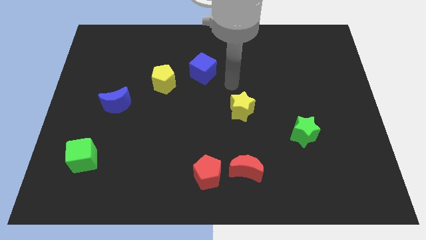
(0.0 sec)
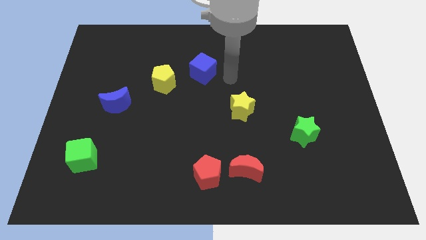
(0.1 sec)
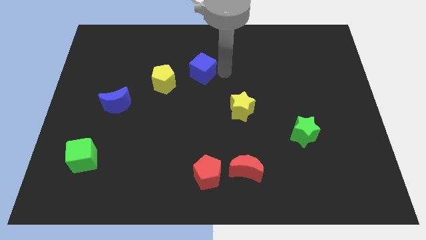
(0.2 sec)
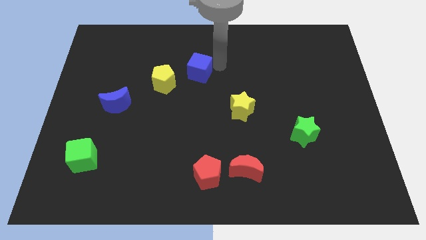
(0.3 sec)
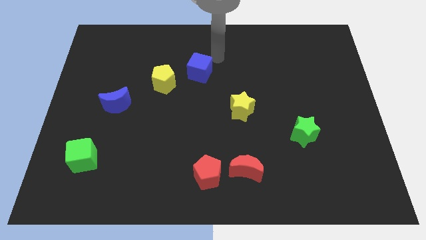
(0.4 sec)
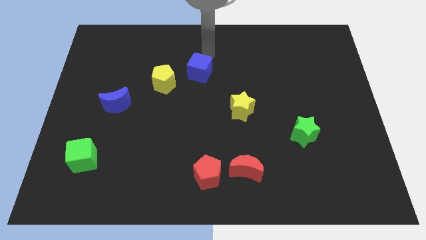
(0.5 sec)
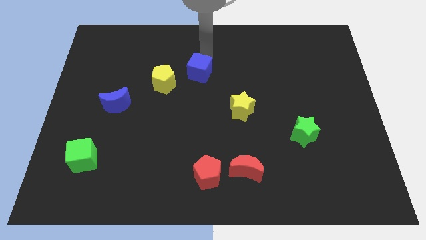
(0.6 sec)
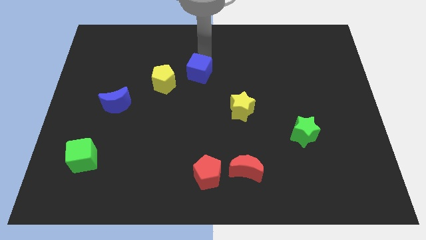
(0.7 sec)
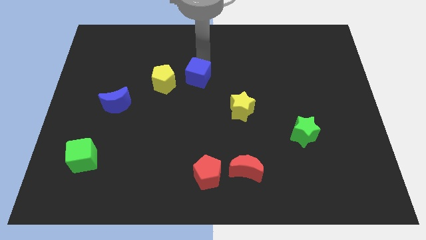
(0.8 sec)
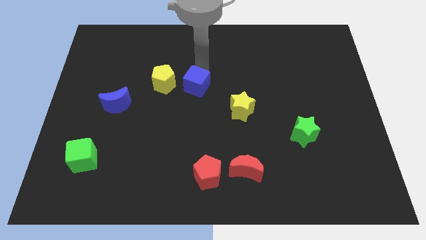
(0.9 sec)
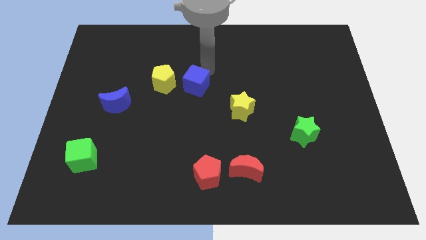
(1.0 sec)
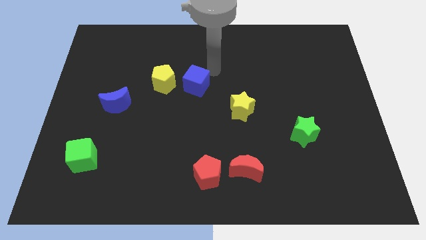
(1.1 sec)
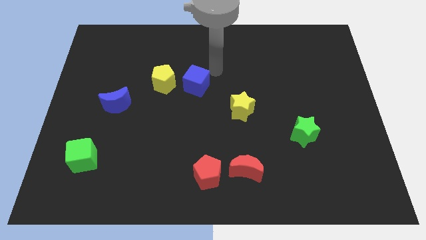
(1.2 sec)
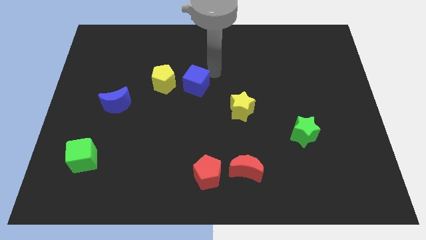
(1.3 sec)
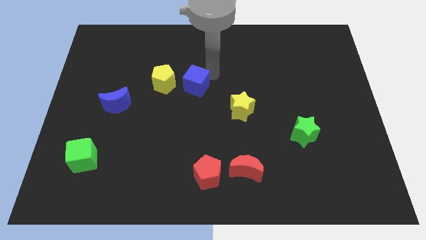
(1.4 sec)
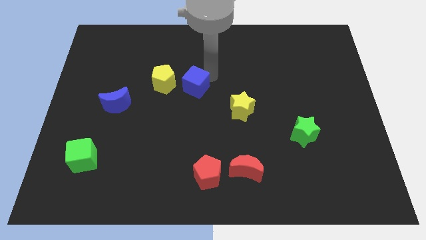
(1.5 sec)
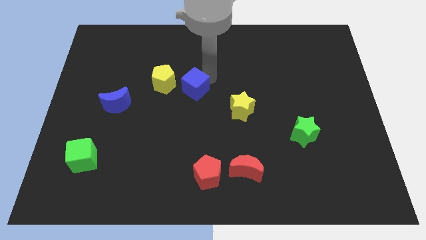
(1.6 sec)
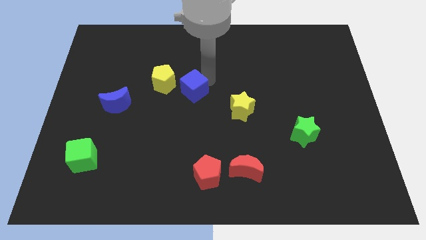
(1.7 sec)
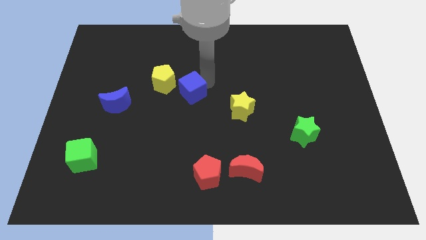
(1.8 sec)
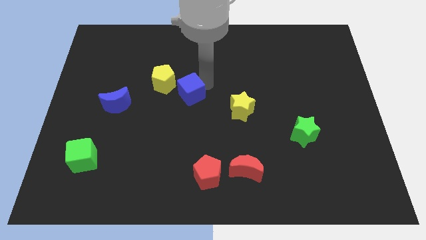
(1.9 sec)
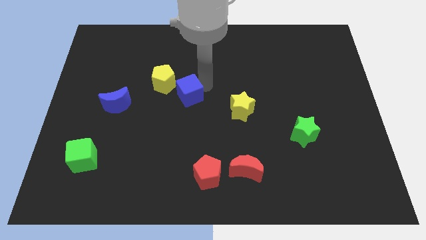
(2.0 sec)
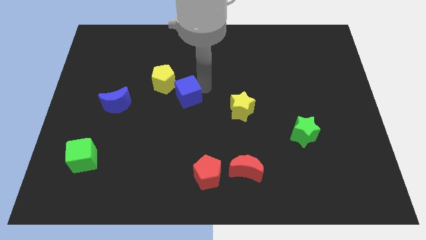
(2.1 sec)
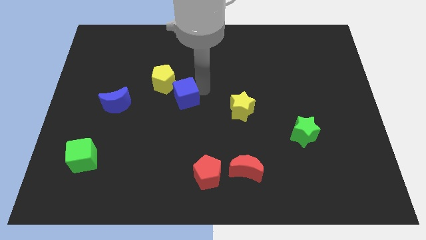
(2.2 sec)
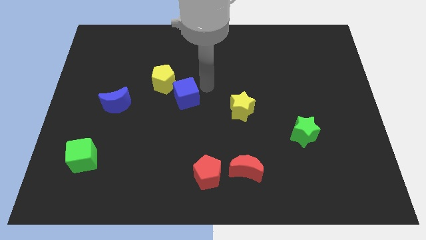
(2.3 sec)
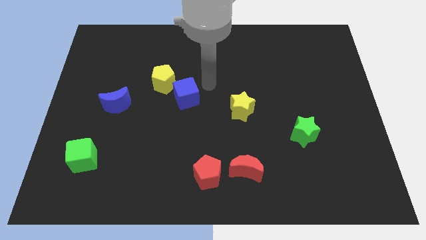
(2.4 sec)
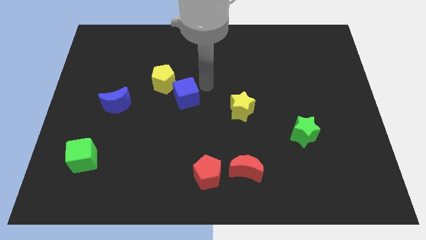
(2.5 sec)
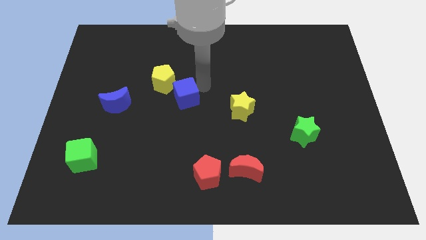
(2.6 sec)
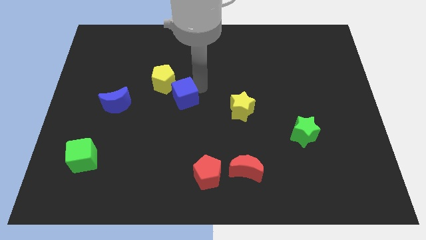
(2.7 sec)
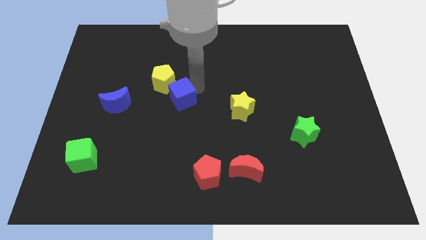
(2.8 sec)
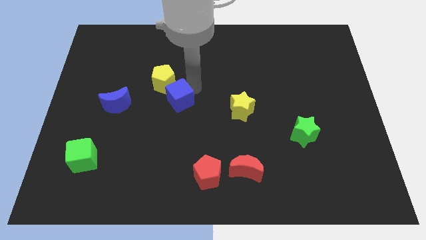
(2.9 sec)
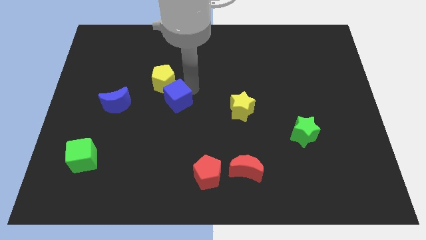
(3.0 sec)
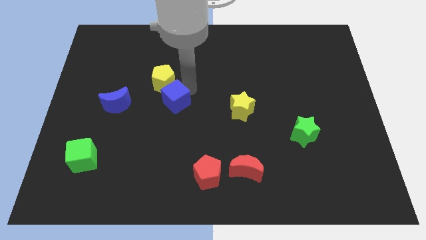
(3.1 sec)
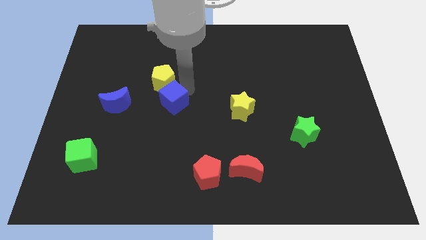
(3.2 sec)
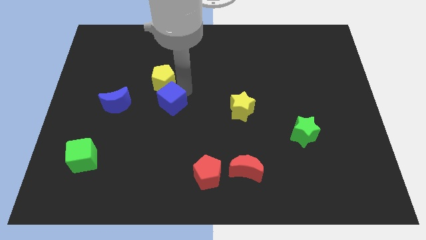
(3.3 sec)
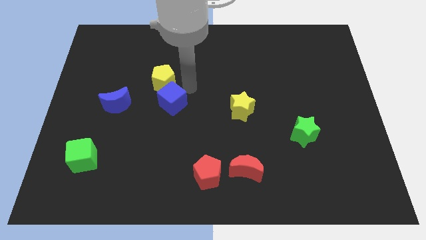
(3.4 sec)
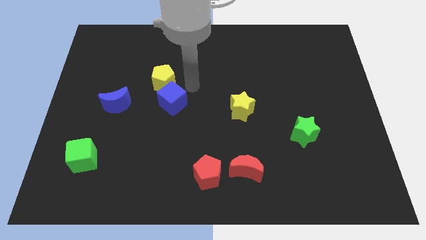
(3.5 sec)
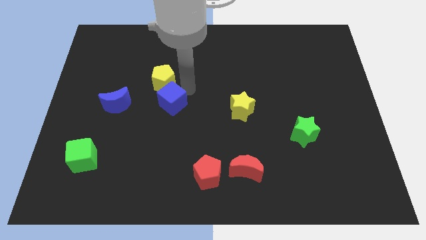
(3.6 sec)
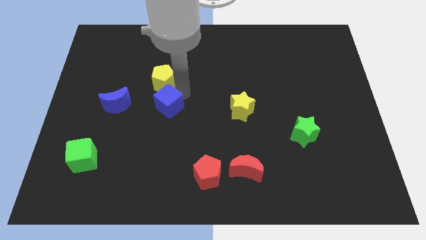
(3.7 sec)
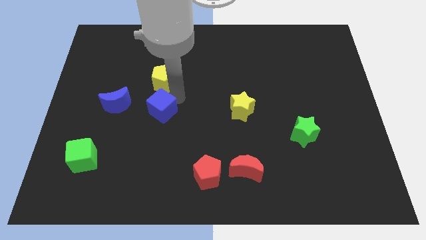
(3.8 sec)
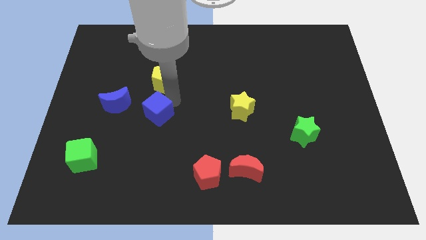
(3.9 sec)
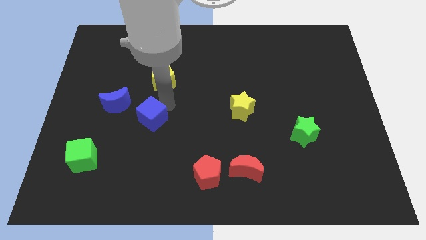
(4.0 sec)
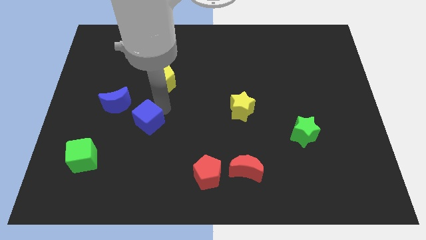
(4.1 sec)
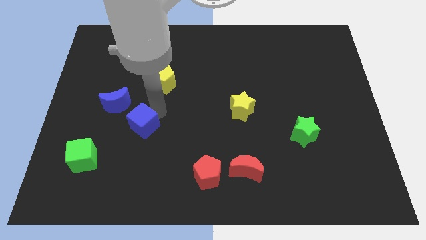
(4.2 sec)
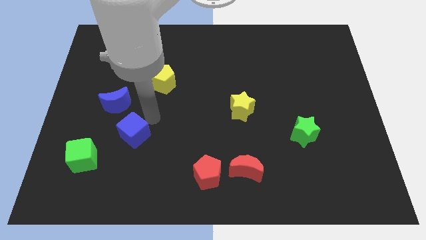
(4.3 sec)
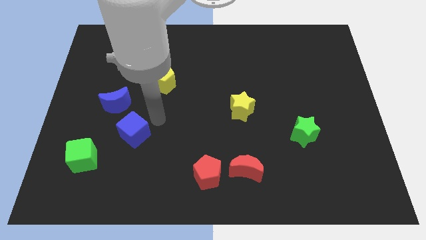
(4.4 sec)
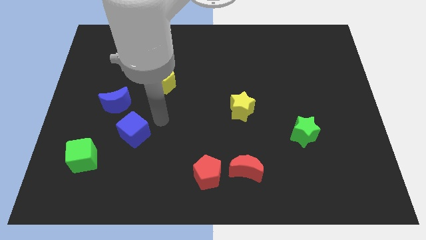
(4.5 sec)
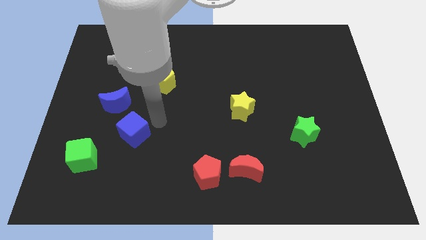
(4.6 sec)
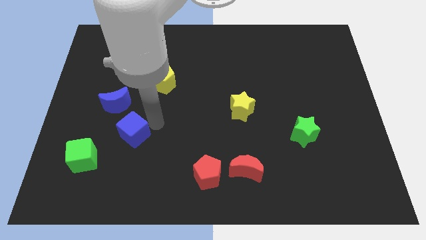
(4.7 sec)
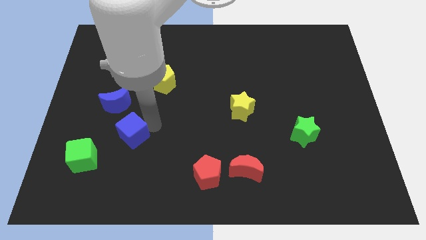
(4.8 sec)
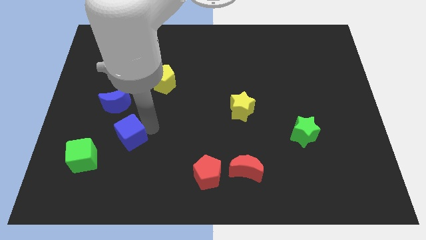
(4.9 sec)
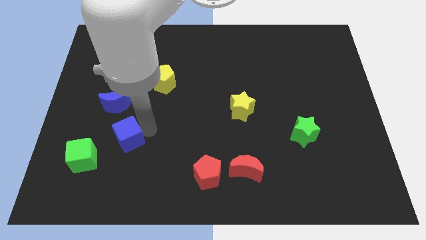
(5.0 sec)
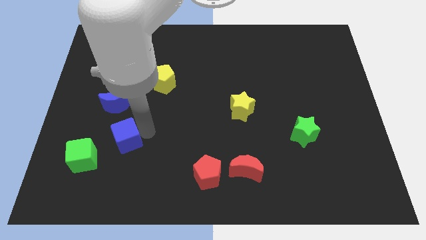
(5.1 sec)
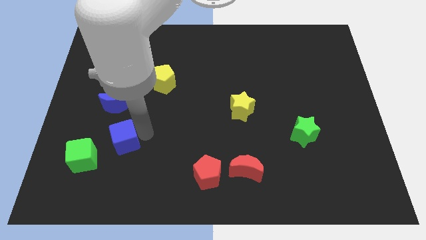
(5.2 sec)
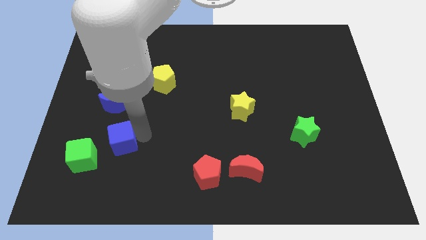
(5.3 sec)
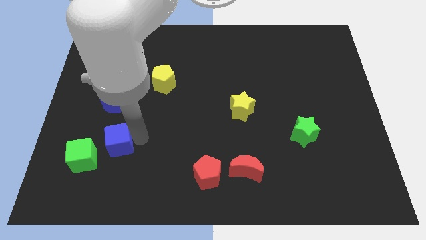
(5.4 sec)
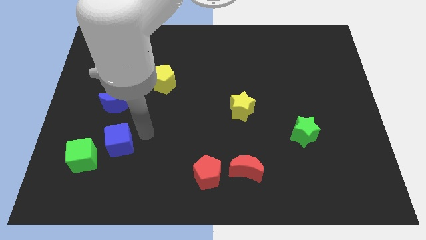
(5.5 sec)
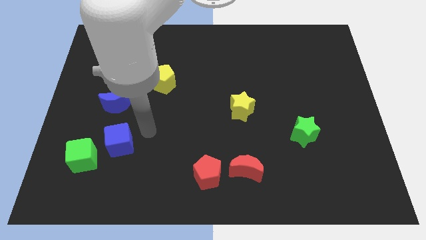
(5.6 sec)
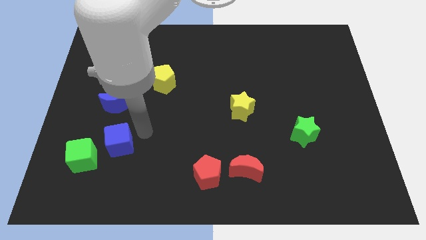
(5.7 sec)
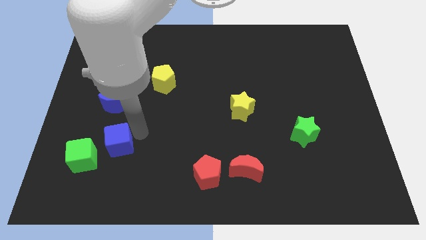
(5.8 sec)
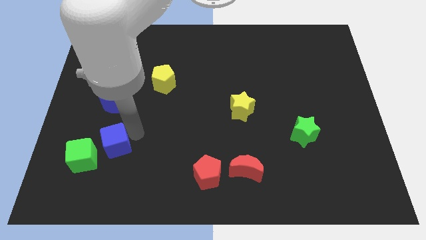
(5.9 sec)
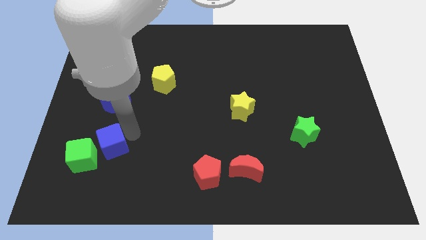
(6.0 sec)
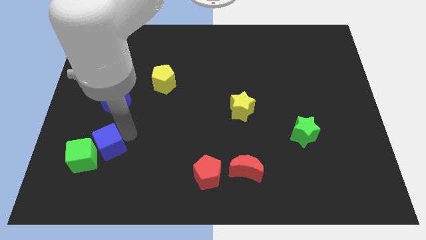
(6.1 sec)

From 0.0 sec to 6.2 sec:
move the blue cube next to the green cube
